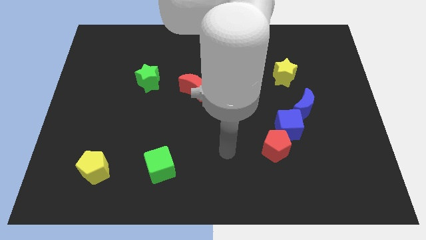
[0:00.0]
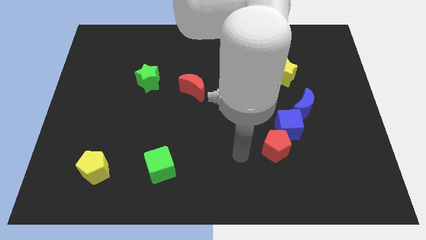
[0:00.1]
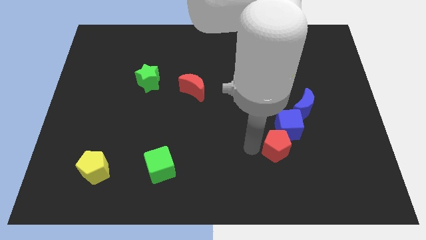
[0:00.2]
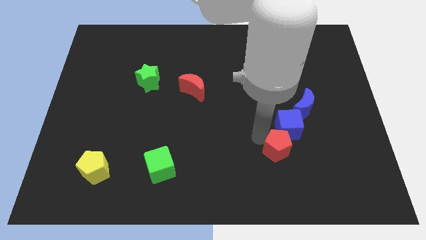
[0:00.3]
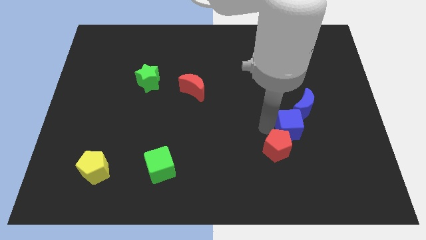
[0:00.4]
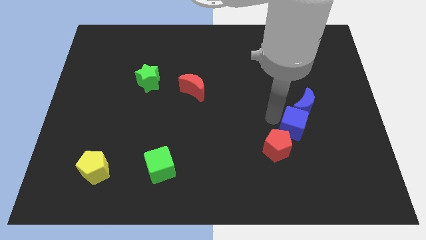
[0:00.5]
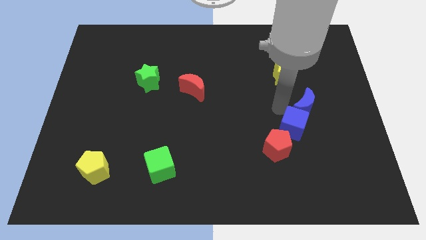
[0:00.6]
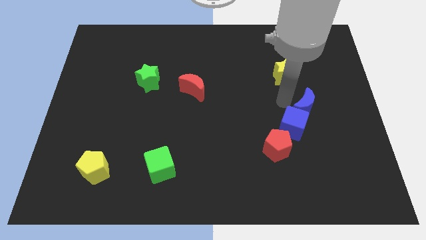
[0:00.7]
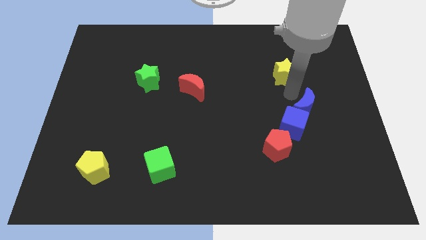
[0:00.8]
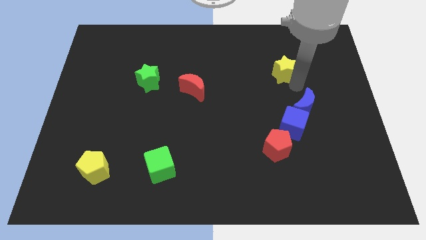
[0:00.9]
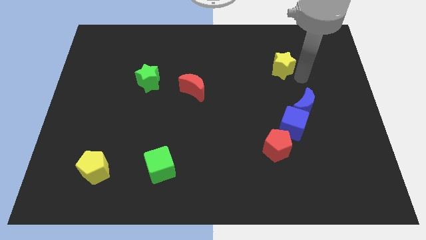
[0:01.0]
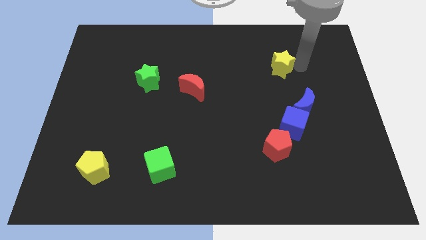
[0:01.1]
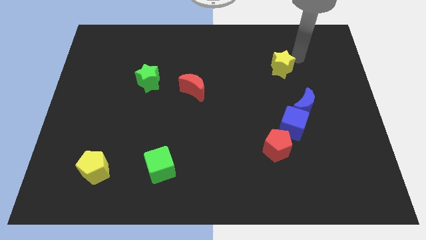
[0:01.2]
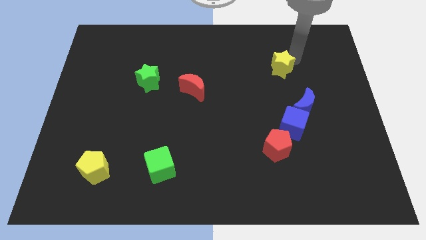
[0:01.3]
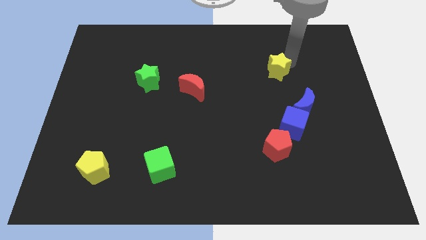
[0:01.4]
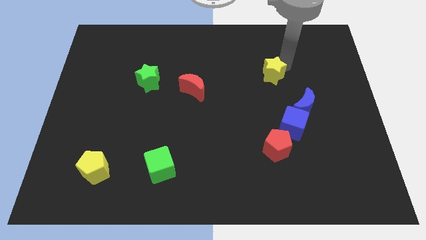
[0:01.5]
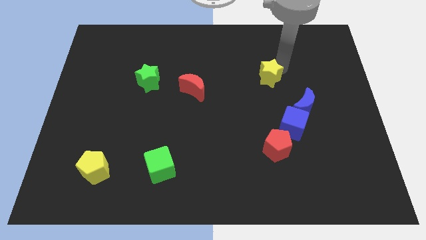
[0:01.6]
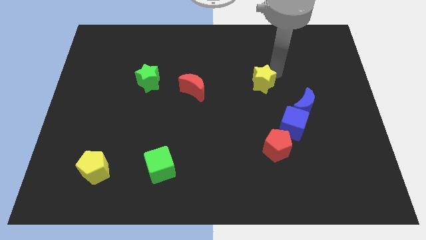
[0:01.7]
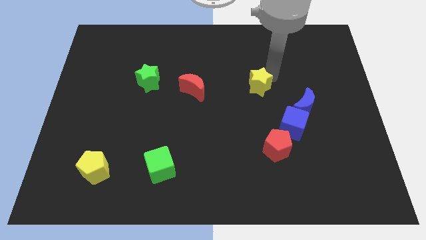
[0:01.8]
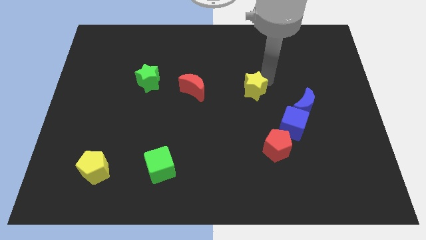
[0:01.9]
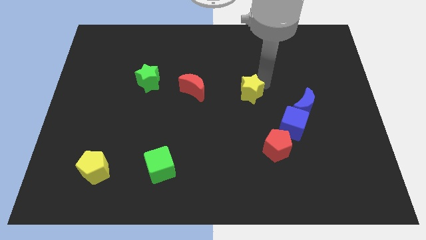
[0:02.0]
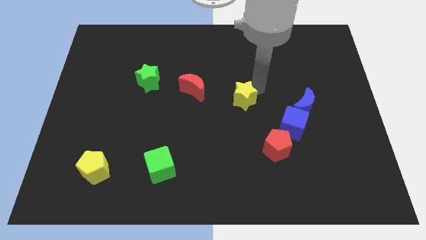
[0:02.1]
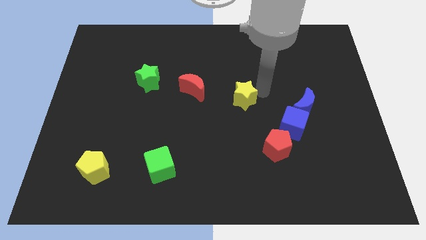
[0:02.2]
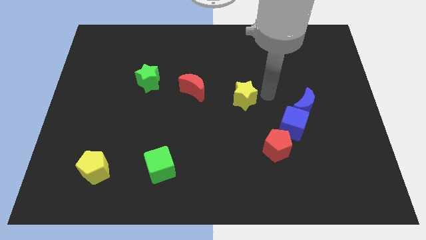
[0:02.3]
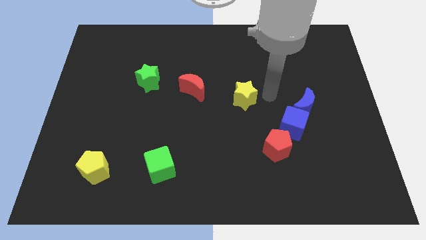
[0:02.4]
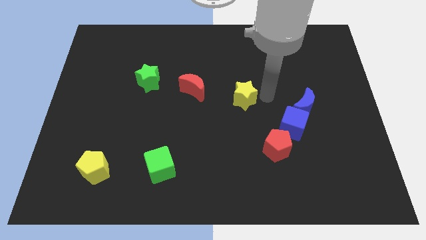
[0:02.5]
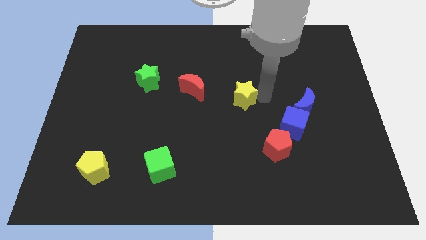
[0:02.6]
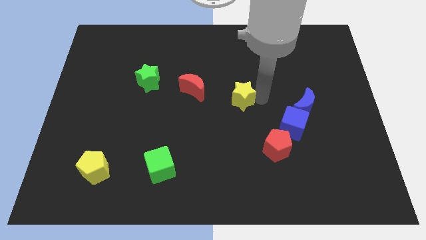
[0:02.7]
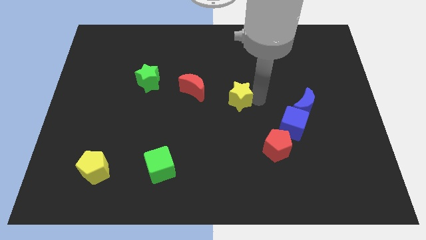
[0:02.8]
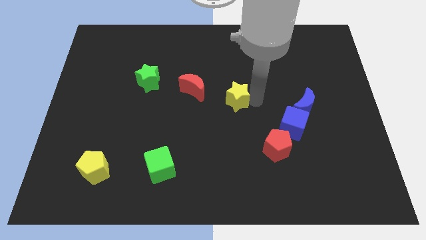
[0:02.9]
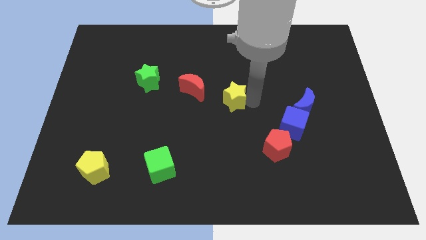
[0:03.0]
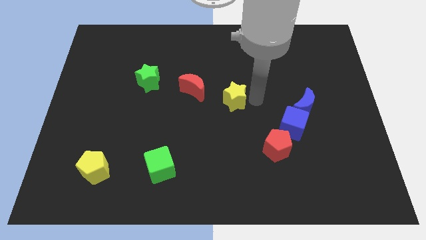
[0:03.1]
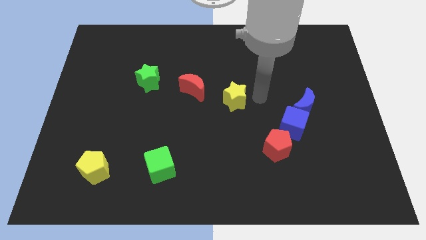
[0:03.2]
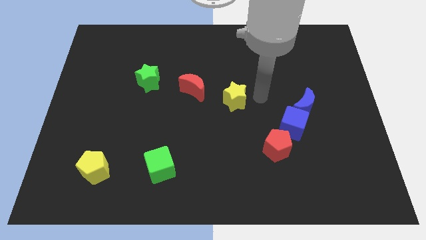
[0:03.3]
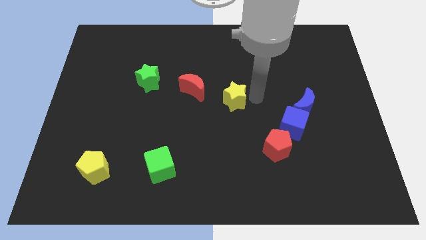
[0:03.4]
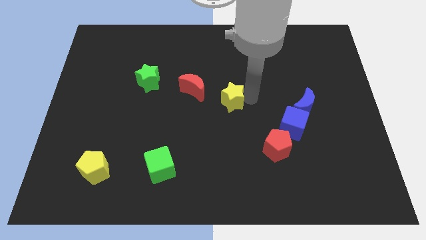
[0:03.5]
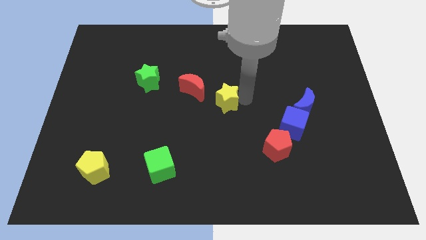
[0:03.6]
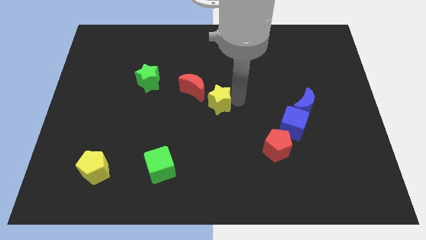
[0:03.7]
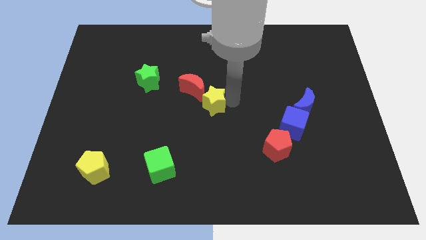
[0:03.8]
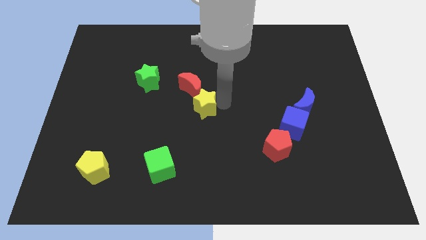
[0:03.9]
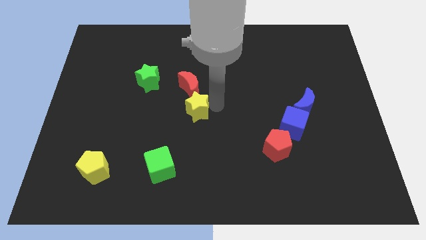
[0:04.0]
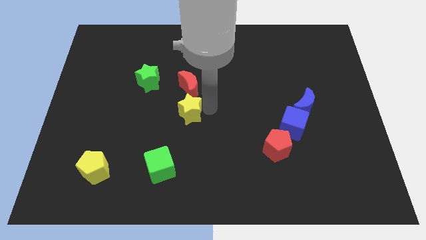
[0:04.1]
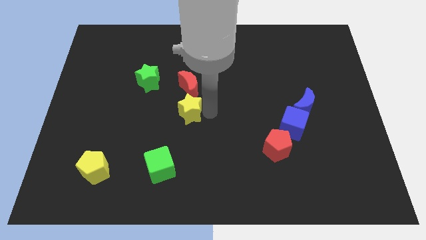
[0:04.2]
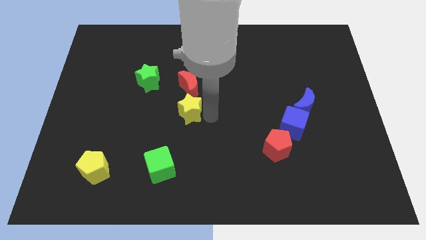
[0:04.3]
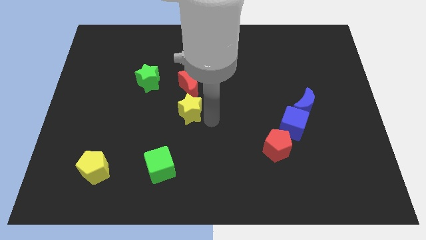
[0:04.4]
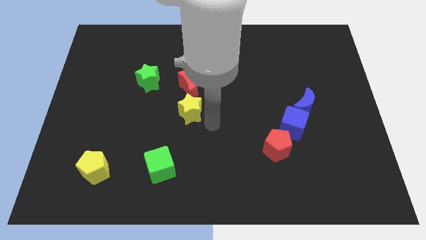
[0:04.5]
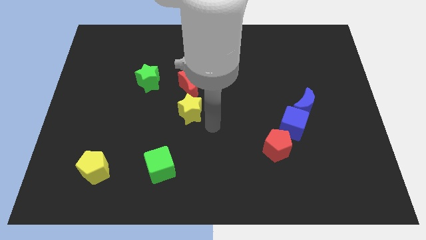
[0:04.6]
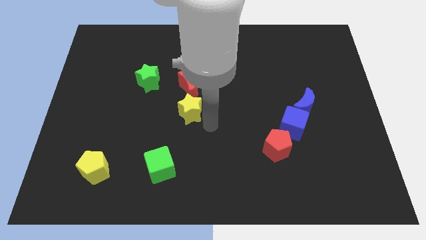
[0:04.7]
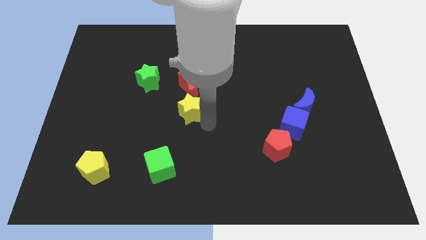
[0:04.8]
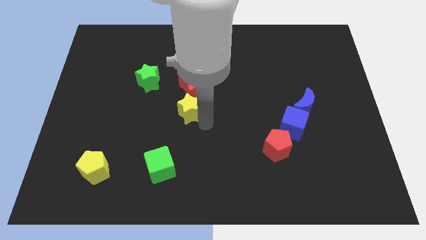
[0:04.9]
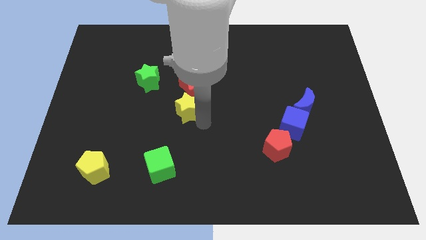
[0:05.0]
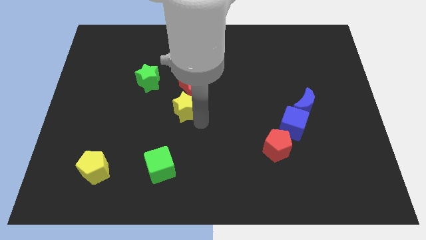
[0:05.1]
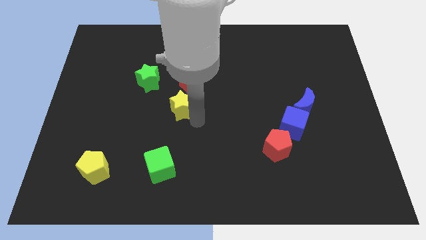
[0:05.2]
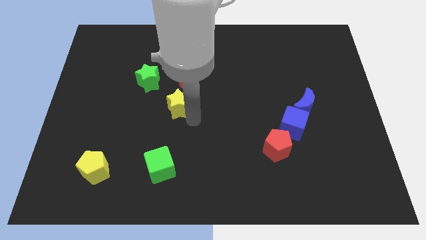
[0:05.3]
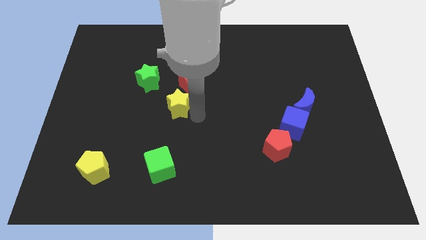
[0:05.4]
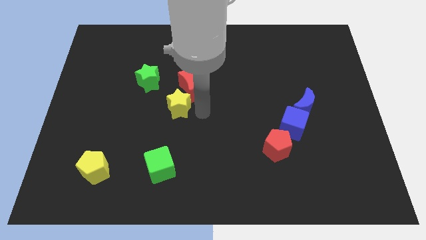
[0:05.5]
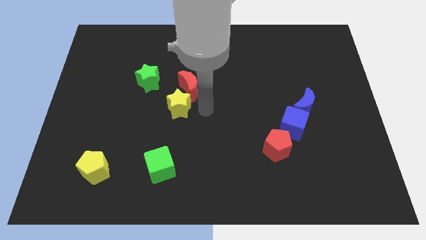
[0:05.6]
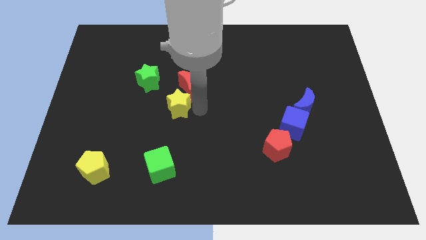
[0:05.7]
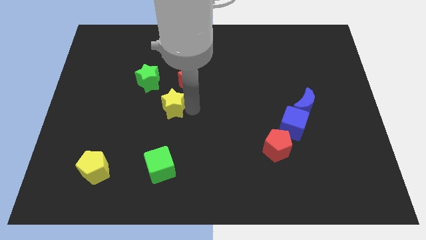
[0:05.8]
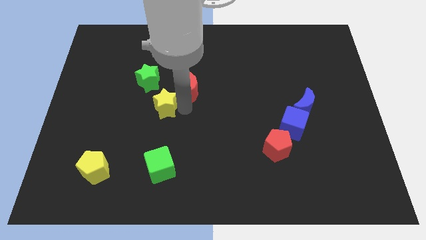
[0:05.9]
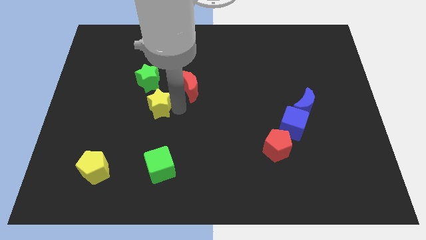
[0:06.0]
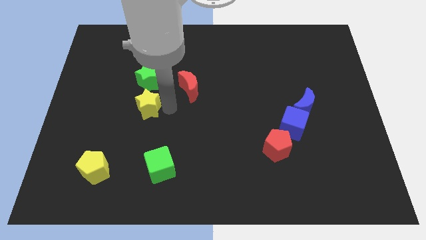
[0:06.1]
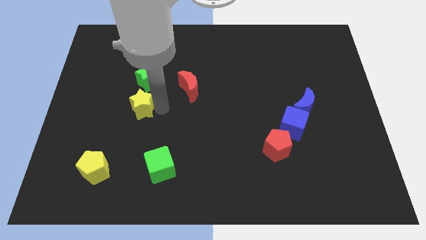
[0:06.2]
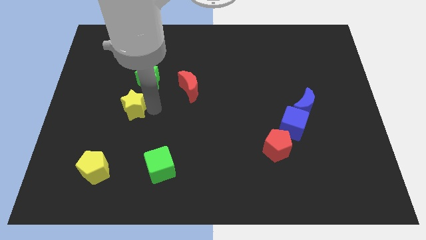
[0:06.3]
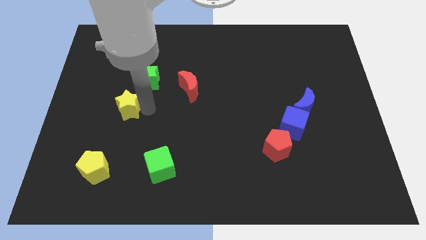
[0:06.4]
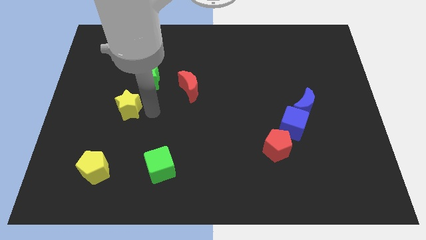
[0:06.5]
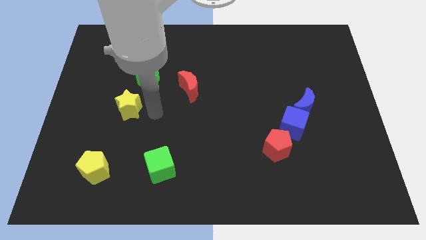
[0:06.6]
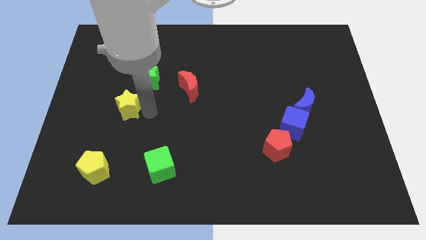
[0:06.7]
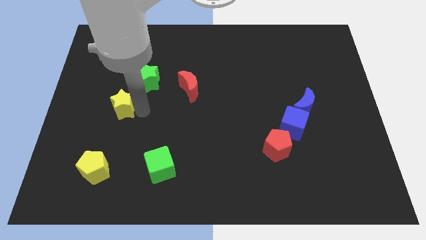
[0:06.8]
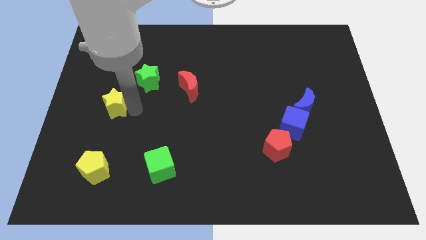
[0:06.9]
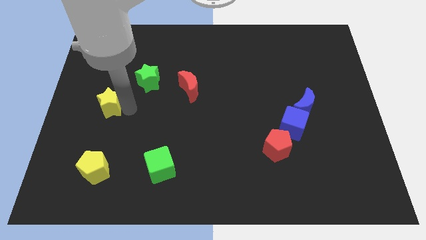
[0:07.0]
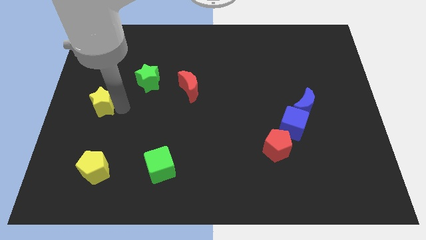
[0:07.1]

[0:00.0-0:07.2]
move the yellow star to the left side
